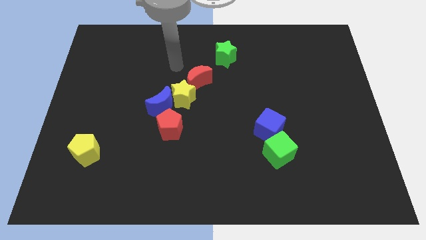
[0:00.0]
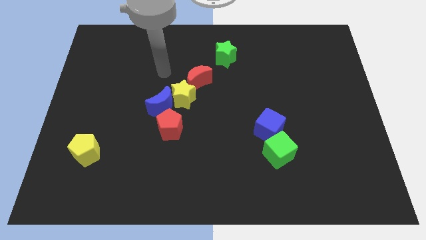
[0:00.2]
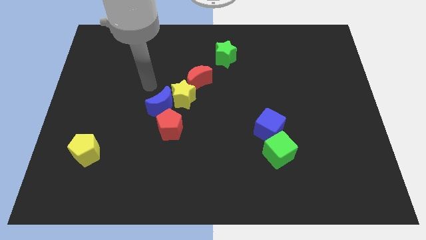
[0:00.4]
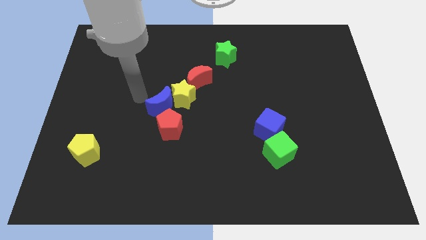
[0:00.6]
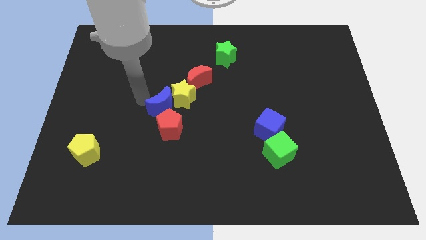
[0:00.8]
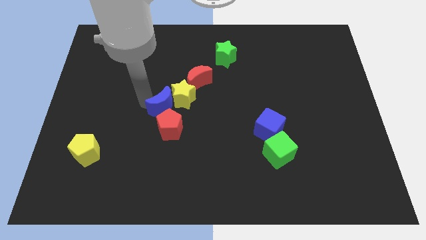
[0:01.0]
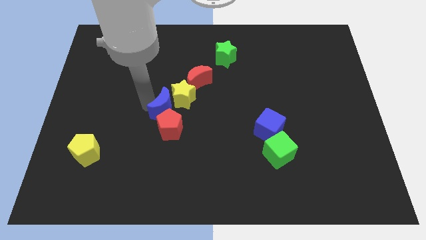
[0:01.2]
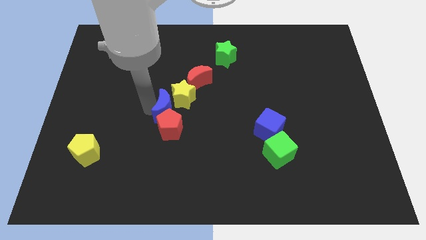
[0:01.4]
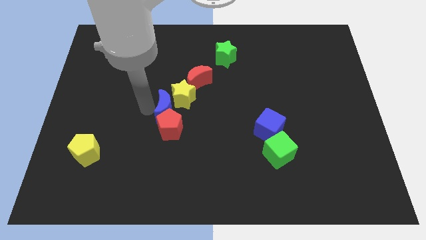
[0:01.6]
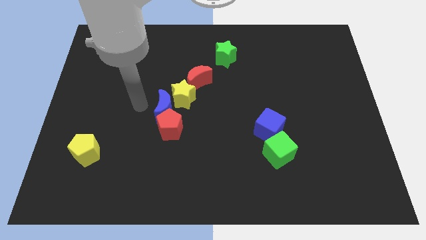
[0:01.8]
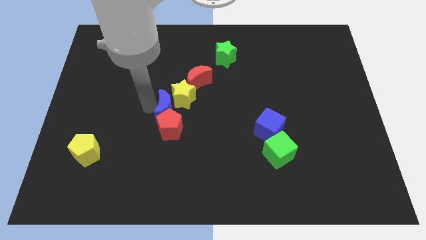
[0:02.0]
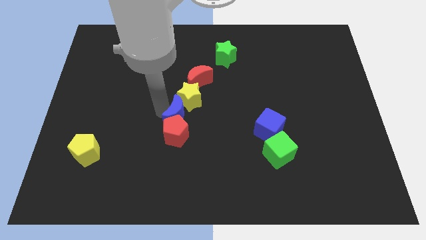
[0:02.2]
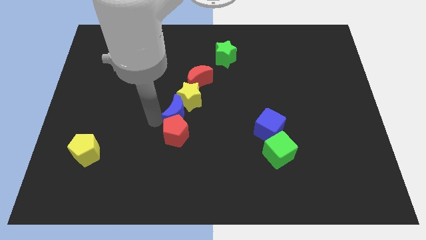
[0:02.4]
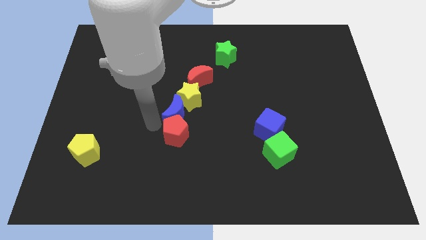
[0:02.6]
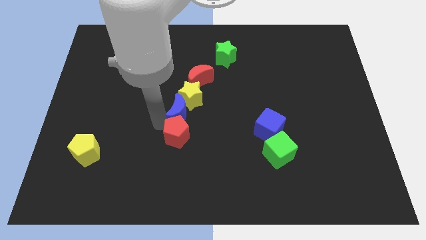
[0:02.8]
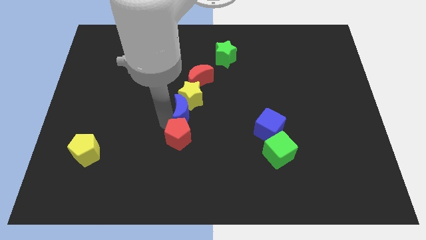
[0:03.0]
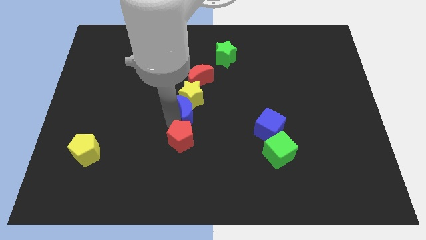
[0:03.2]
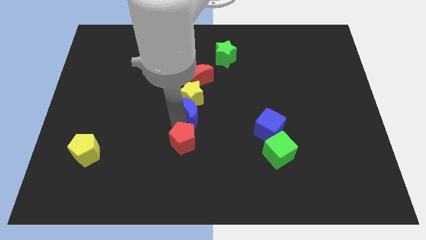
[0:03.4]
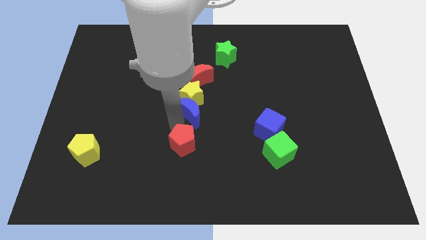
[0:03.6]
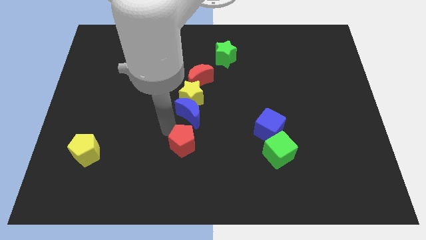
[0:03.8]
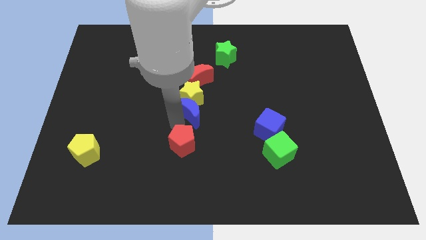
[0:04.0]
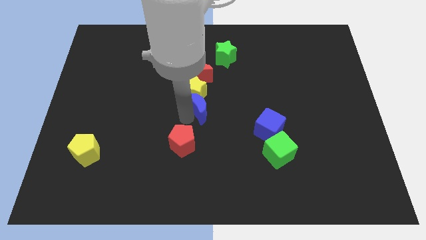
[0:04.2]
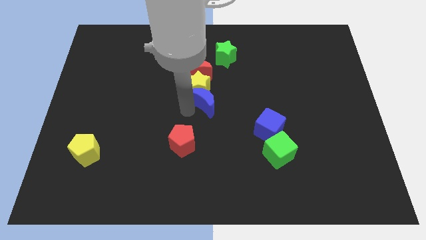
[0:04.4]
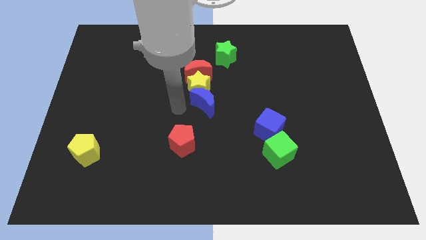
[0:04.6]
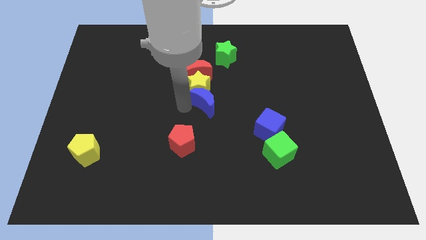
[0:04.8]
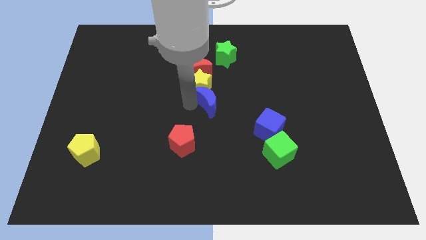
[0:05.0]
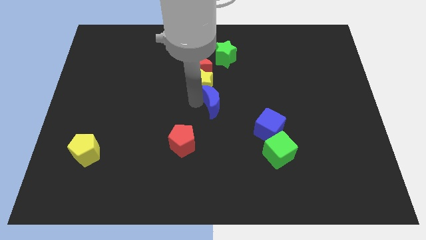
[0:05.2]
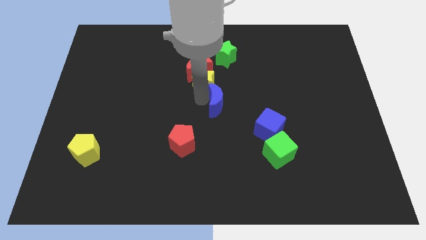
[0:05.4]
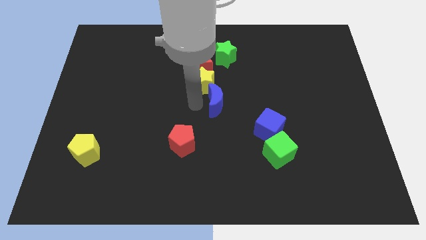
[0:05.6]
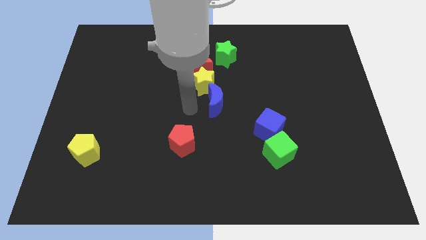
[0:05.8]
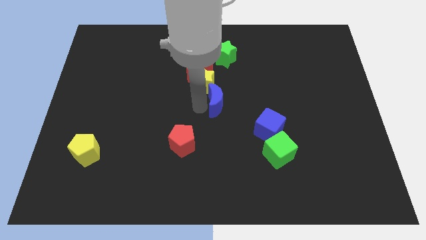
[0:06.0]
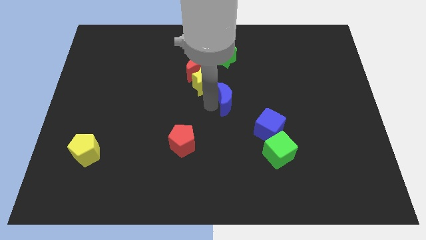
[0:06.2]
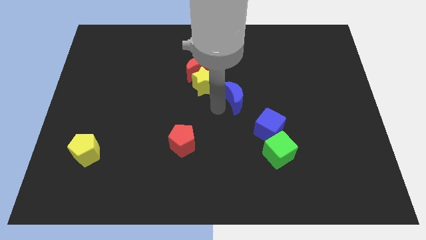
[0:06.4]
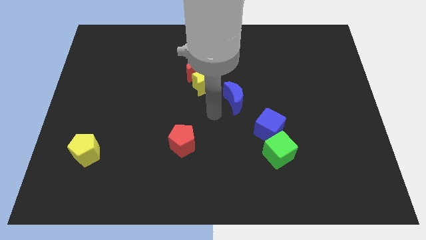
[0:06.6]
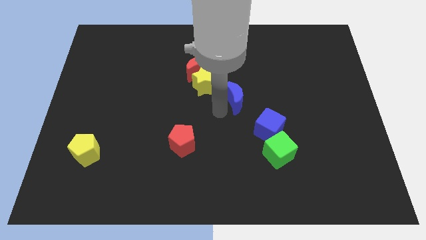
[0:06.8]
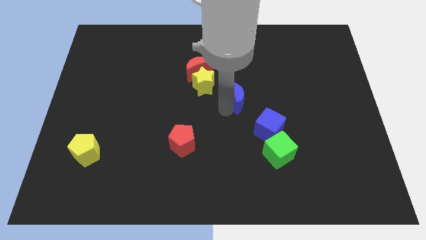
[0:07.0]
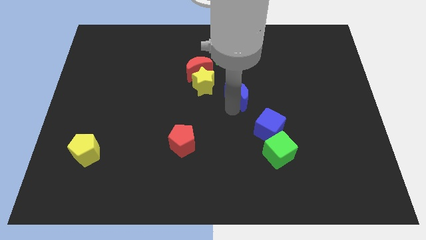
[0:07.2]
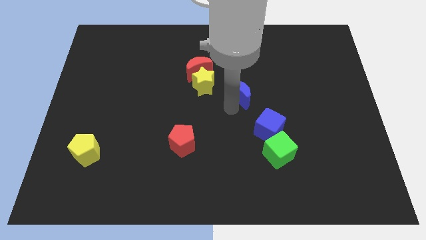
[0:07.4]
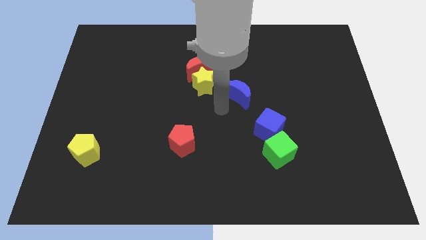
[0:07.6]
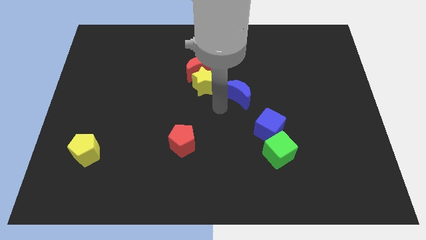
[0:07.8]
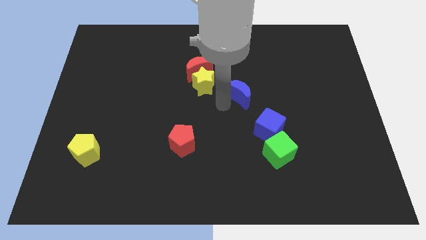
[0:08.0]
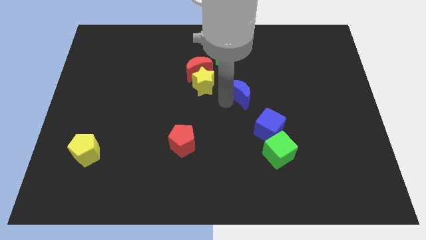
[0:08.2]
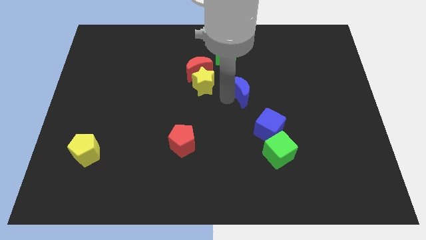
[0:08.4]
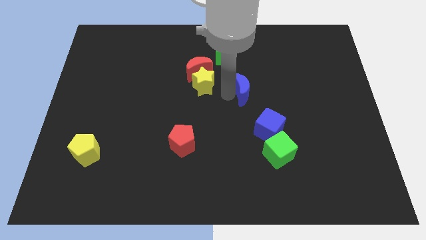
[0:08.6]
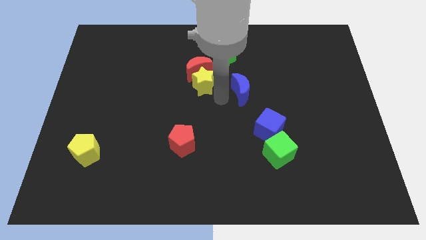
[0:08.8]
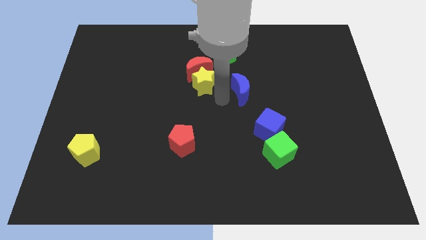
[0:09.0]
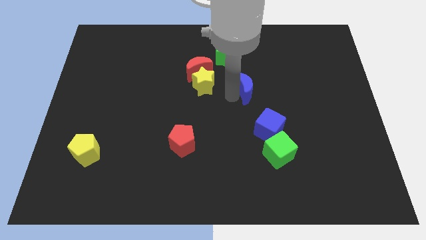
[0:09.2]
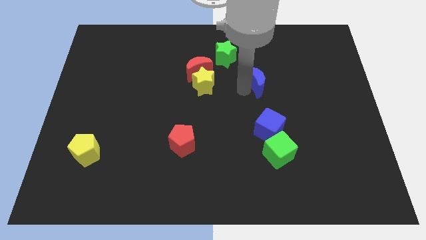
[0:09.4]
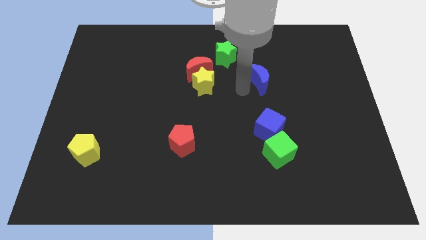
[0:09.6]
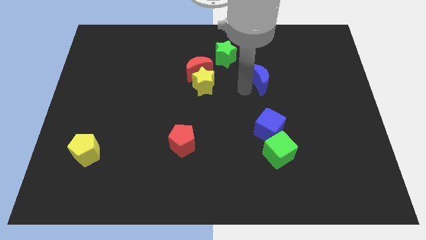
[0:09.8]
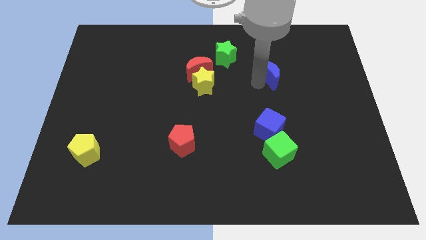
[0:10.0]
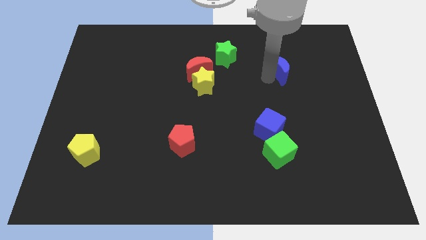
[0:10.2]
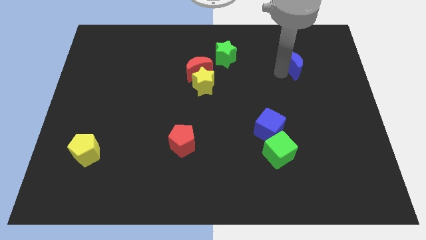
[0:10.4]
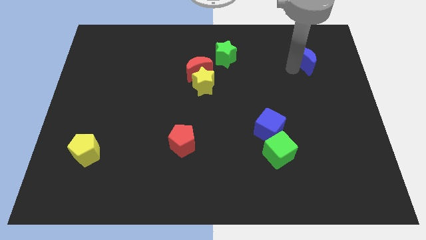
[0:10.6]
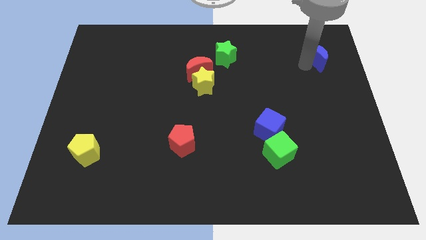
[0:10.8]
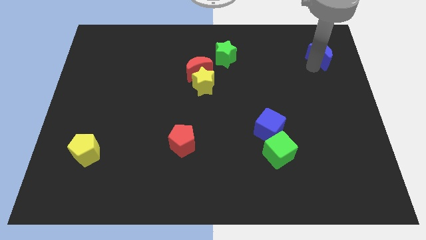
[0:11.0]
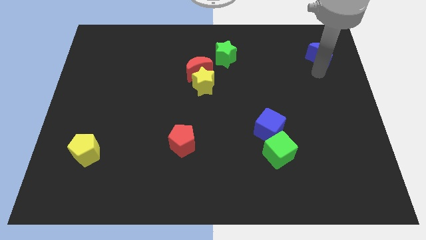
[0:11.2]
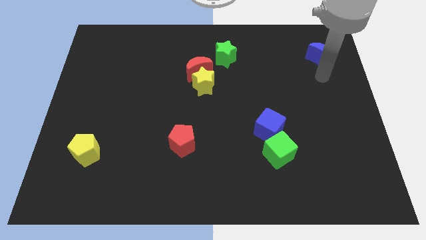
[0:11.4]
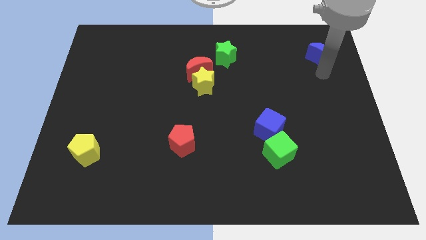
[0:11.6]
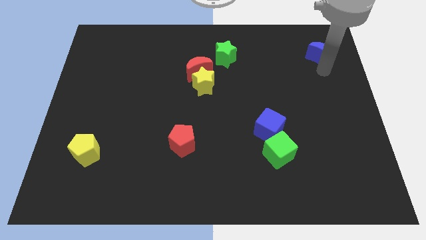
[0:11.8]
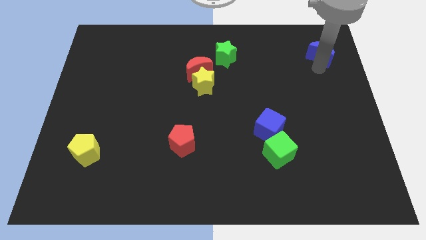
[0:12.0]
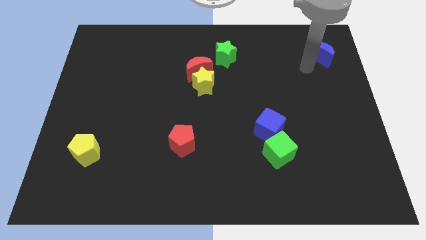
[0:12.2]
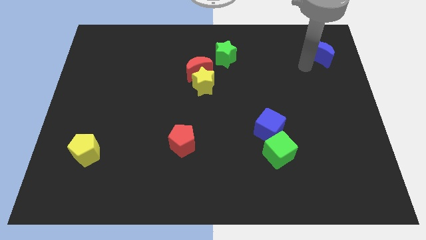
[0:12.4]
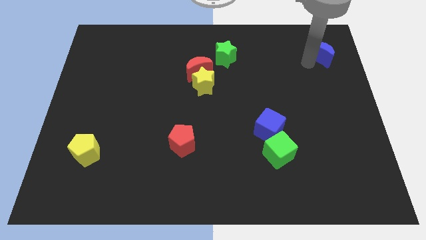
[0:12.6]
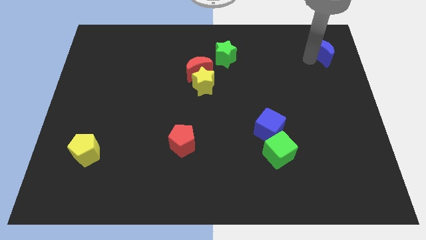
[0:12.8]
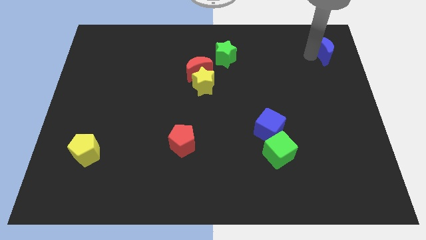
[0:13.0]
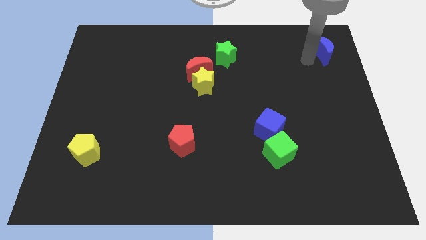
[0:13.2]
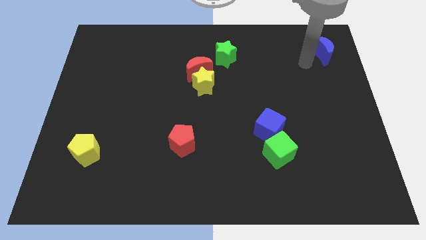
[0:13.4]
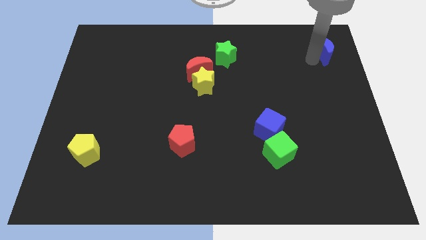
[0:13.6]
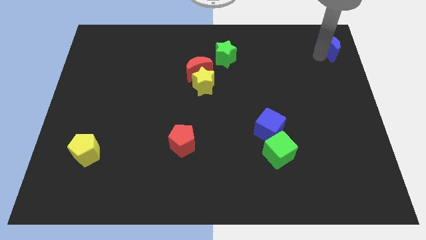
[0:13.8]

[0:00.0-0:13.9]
slide the blue moon to the top right of the board

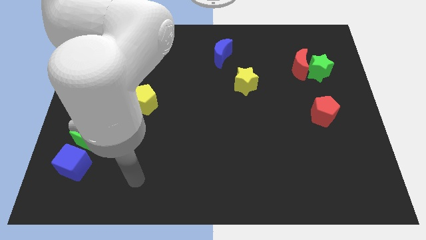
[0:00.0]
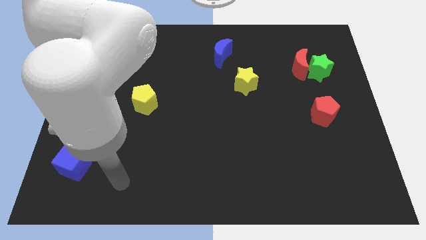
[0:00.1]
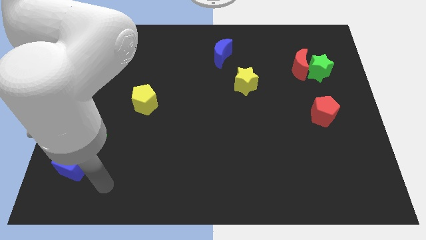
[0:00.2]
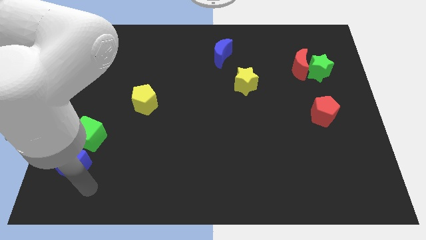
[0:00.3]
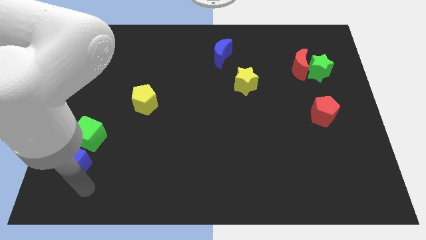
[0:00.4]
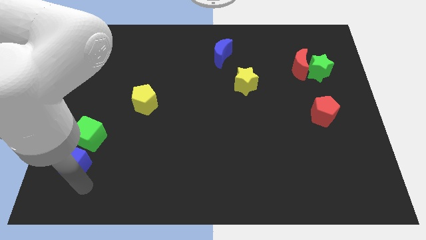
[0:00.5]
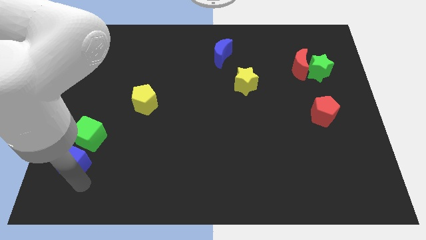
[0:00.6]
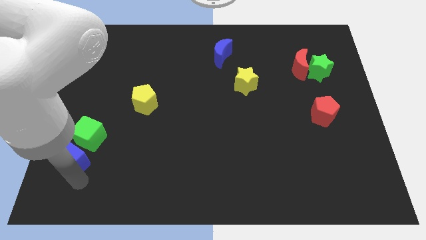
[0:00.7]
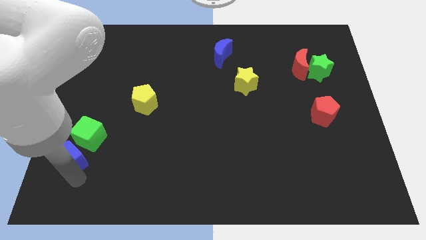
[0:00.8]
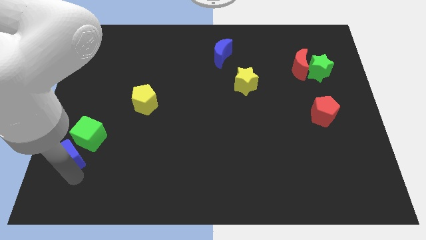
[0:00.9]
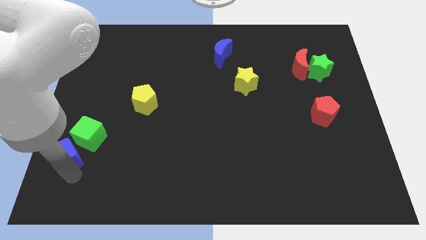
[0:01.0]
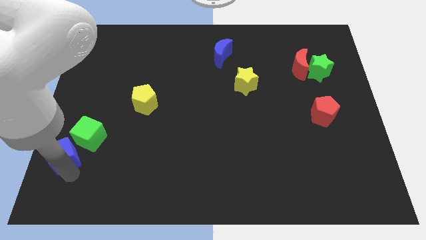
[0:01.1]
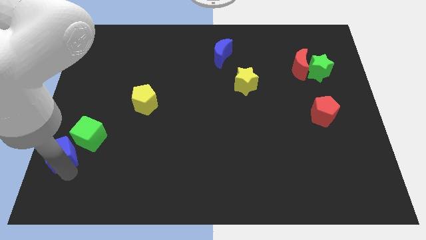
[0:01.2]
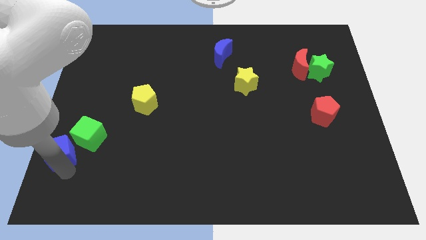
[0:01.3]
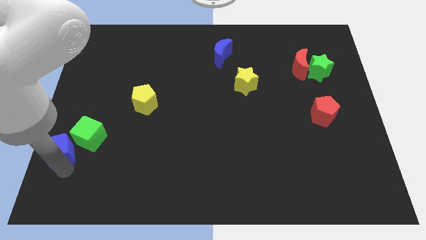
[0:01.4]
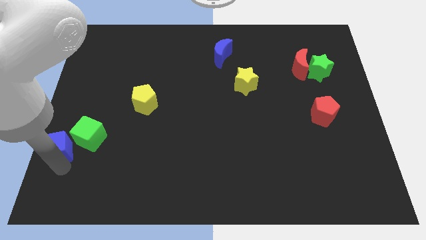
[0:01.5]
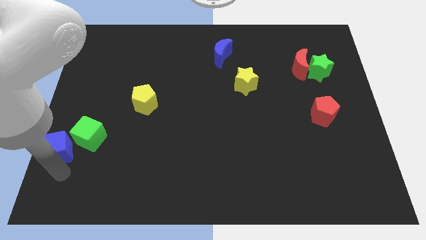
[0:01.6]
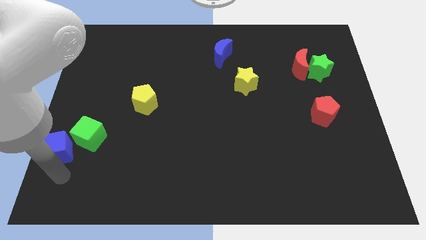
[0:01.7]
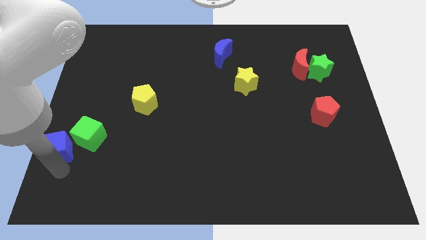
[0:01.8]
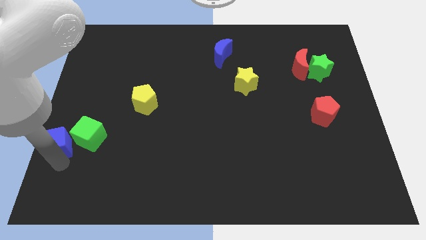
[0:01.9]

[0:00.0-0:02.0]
push the blue cube to the left side of the board
